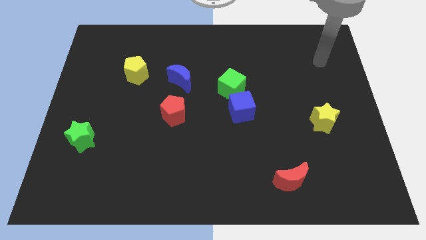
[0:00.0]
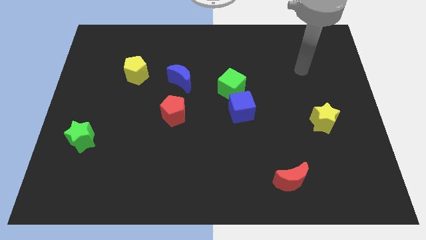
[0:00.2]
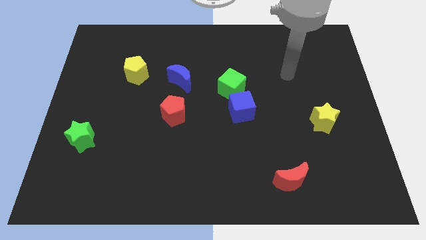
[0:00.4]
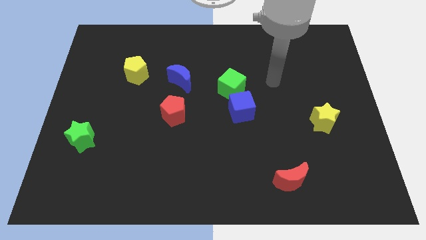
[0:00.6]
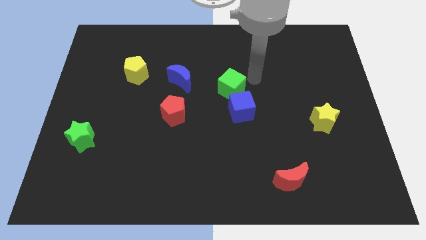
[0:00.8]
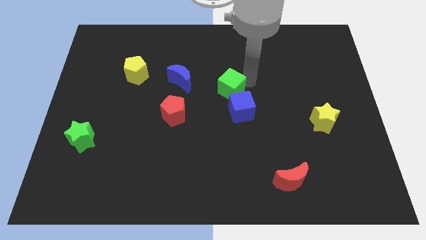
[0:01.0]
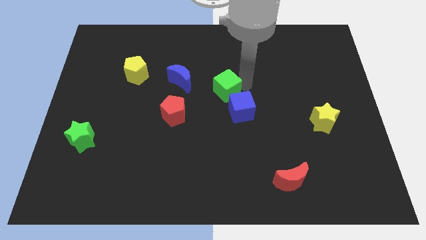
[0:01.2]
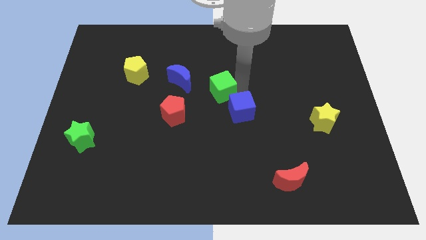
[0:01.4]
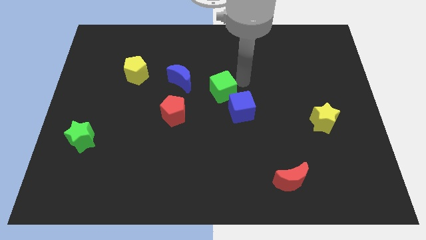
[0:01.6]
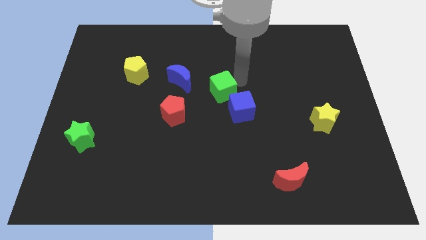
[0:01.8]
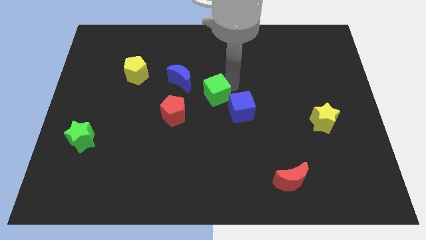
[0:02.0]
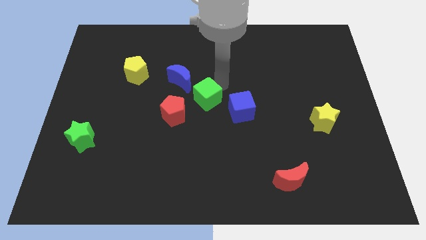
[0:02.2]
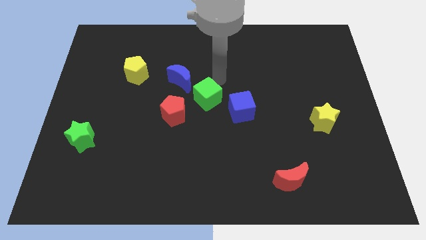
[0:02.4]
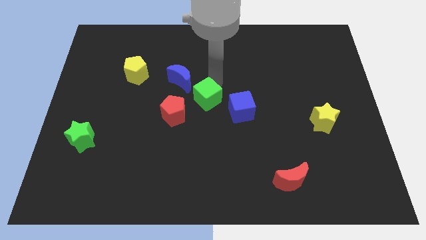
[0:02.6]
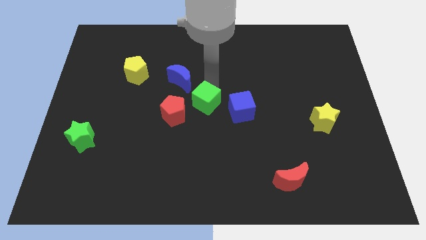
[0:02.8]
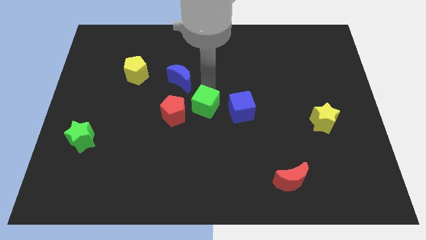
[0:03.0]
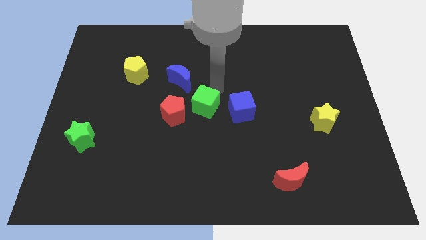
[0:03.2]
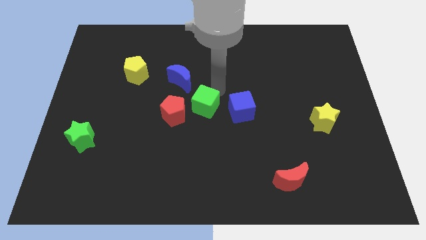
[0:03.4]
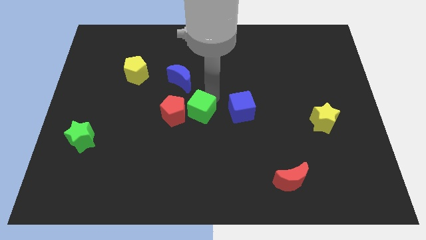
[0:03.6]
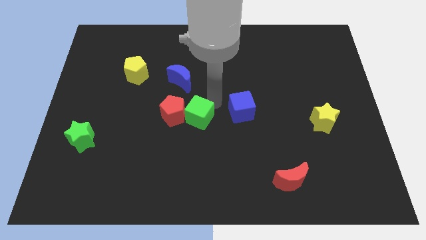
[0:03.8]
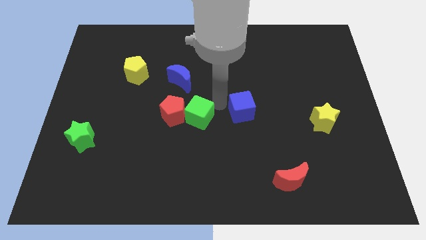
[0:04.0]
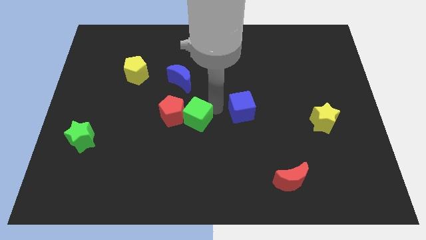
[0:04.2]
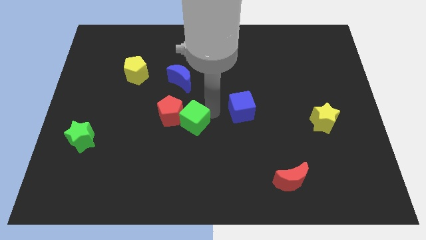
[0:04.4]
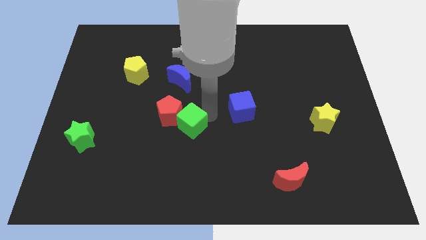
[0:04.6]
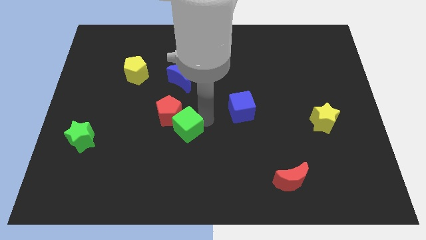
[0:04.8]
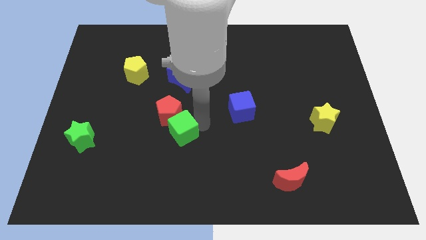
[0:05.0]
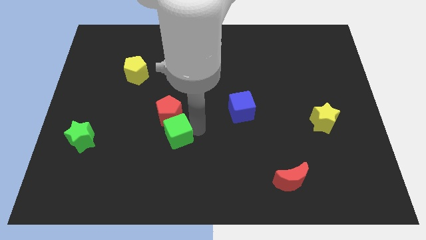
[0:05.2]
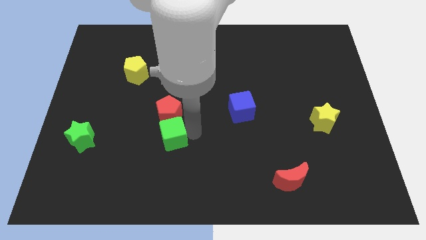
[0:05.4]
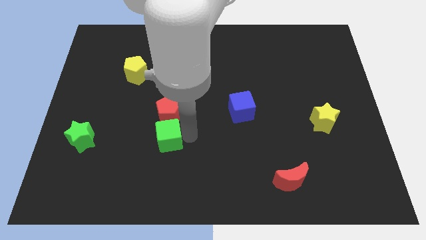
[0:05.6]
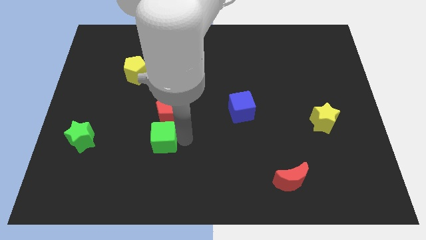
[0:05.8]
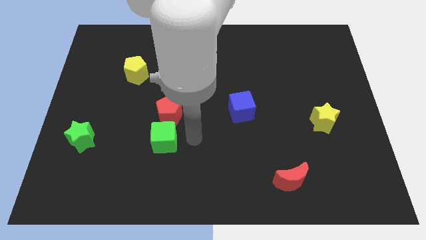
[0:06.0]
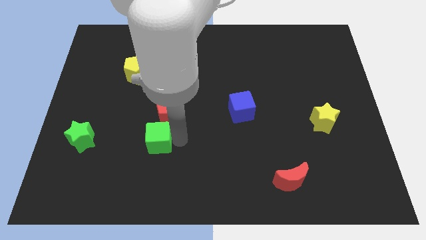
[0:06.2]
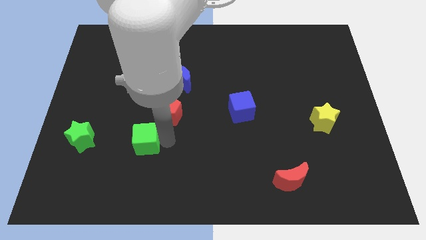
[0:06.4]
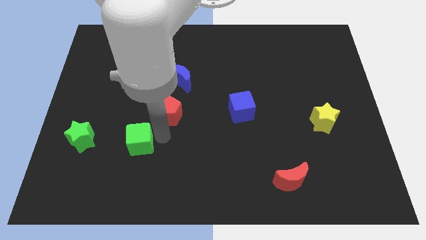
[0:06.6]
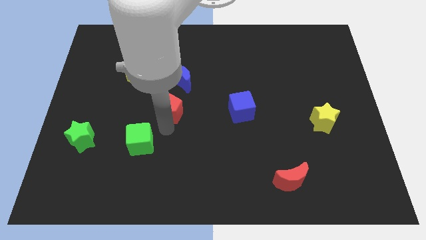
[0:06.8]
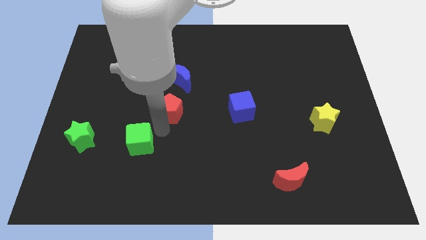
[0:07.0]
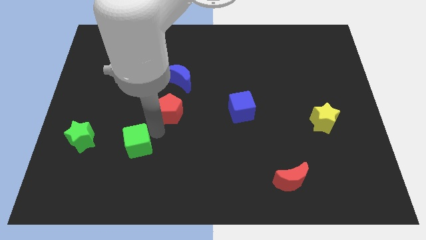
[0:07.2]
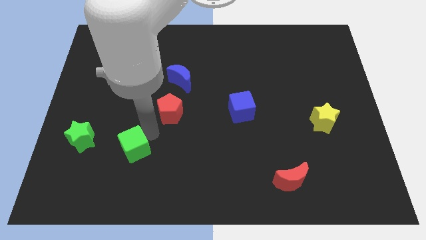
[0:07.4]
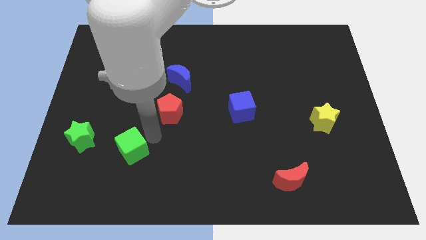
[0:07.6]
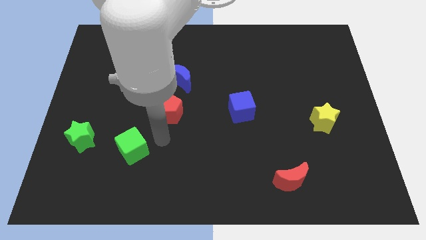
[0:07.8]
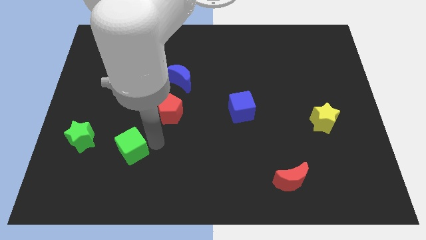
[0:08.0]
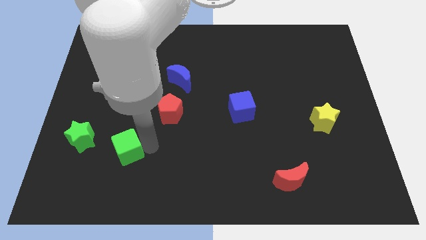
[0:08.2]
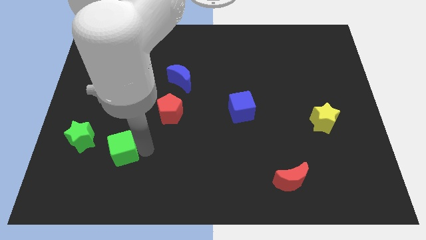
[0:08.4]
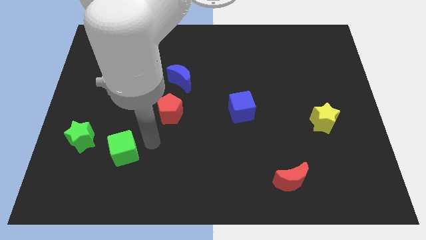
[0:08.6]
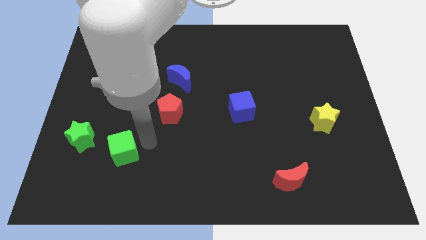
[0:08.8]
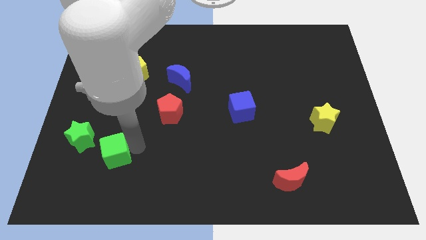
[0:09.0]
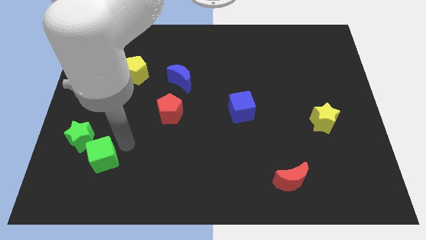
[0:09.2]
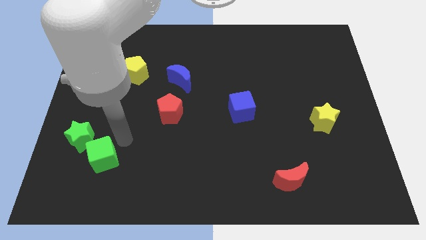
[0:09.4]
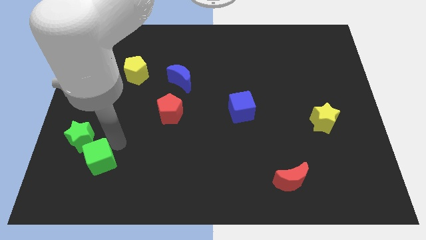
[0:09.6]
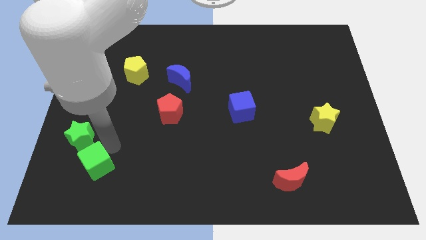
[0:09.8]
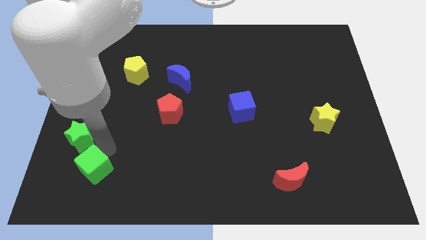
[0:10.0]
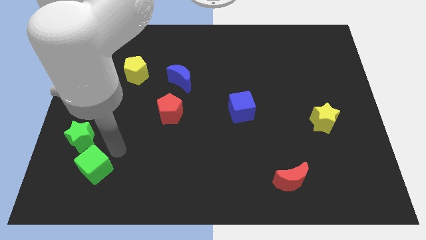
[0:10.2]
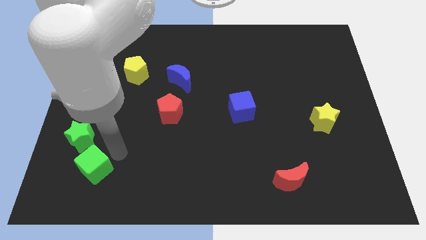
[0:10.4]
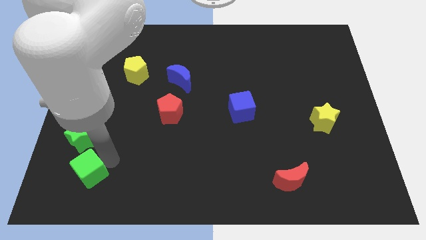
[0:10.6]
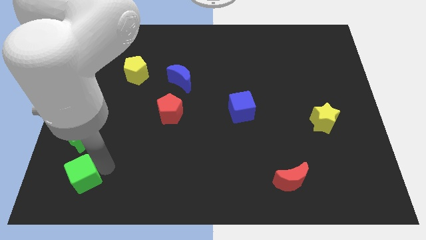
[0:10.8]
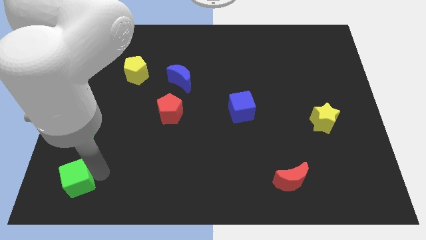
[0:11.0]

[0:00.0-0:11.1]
push the green cube to the bottom left

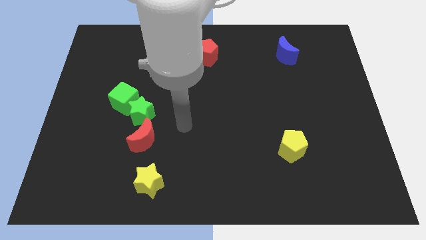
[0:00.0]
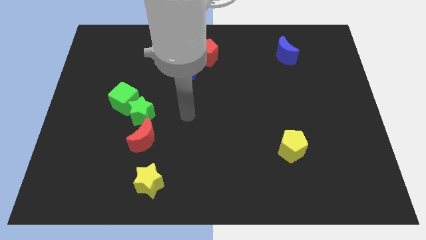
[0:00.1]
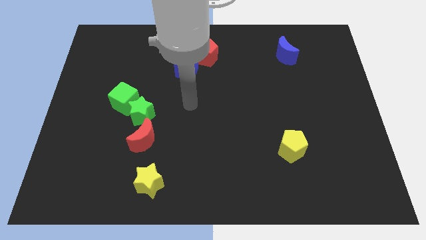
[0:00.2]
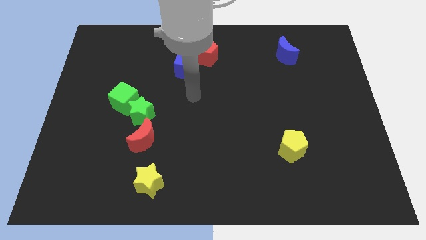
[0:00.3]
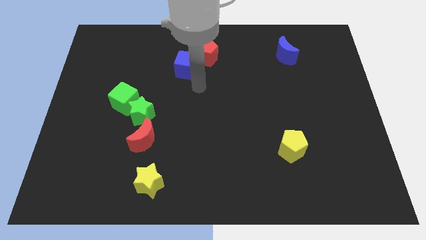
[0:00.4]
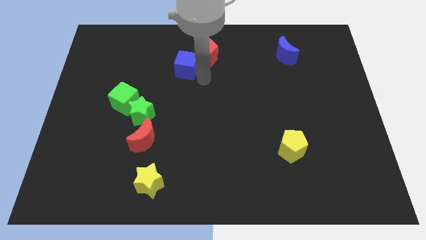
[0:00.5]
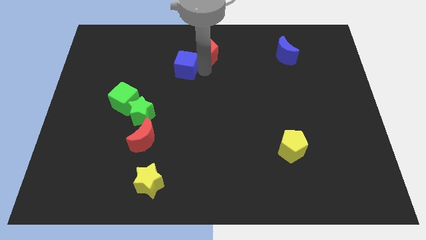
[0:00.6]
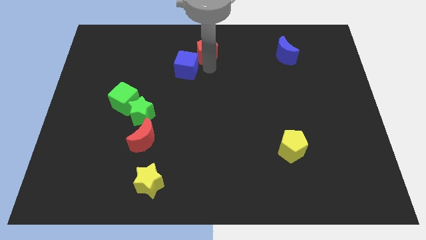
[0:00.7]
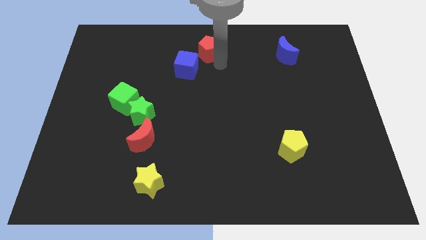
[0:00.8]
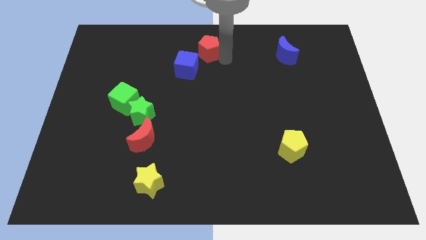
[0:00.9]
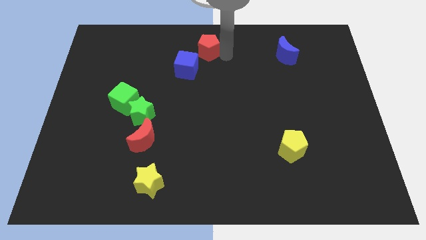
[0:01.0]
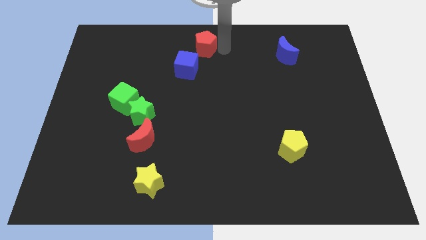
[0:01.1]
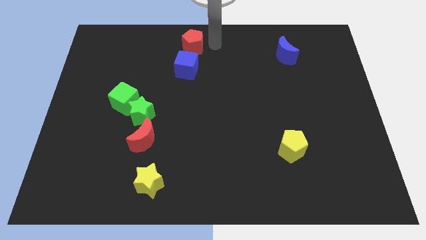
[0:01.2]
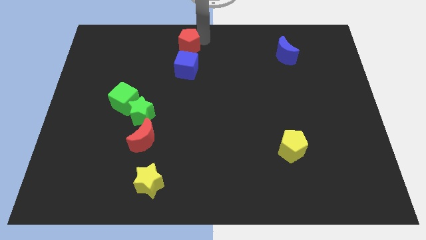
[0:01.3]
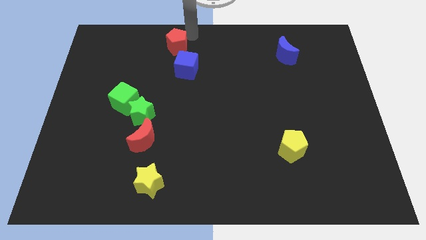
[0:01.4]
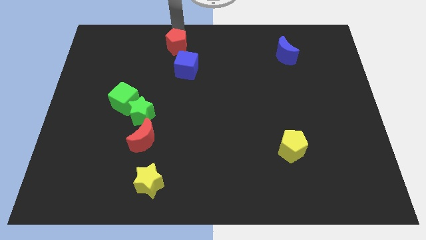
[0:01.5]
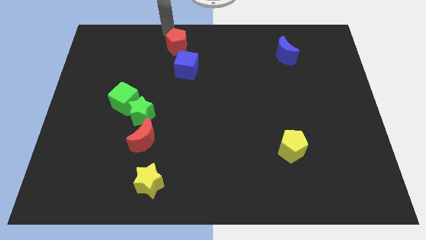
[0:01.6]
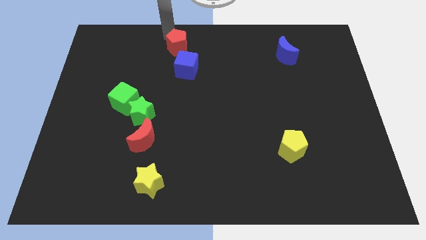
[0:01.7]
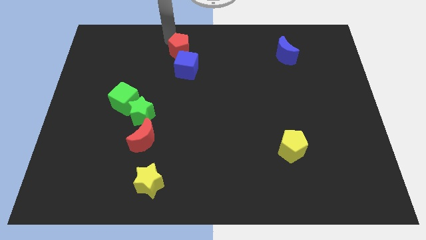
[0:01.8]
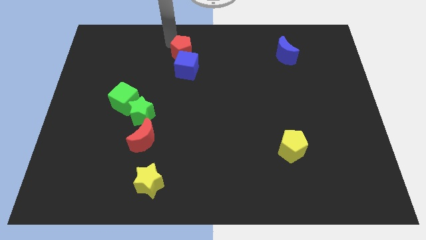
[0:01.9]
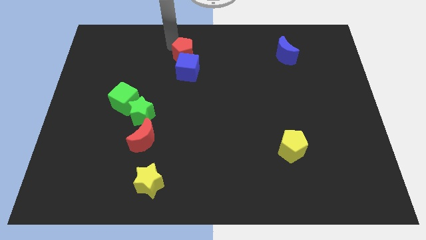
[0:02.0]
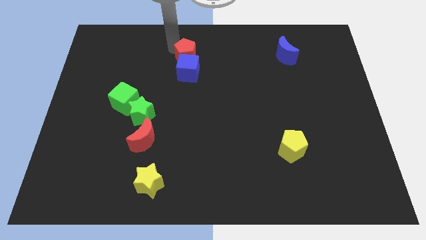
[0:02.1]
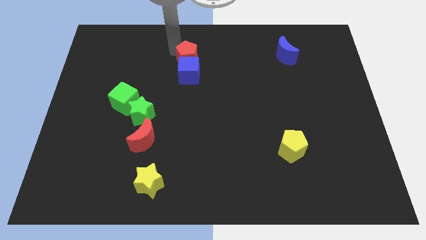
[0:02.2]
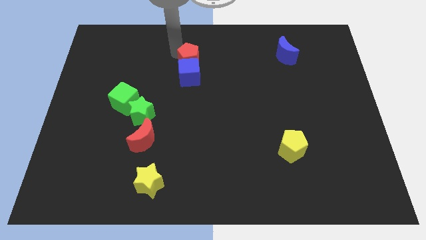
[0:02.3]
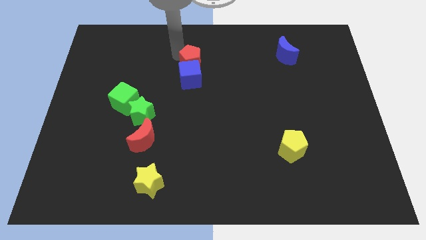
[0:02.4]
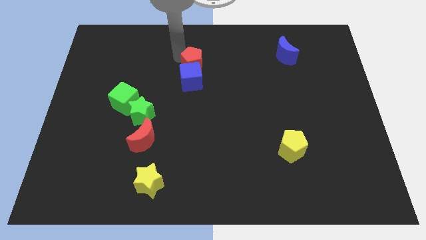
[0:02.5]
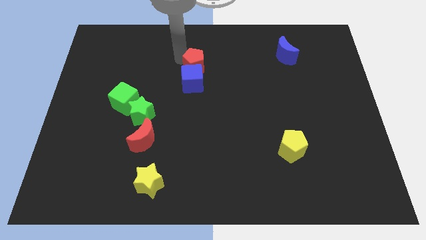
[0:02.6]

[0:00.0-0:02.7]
put the red pentagon to the center
